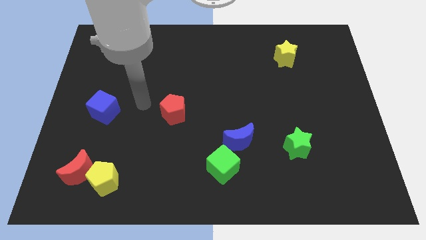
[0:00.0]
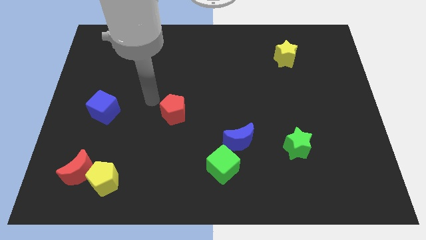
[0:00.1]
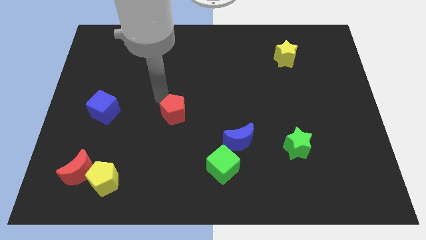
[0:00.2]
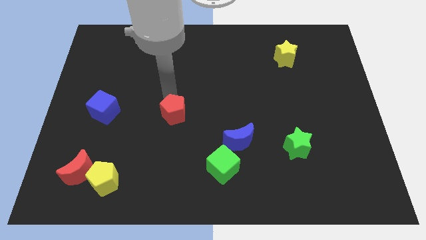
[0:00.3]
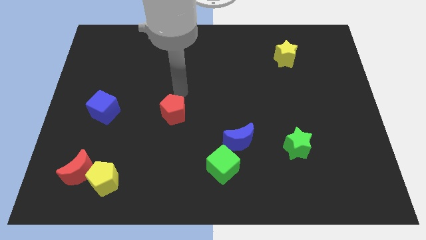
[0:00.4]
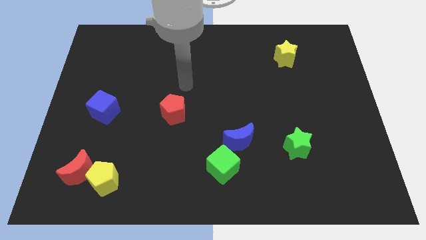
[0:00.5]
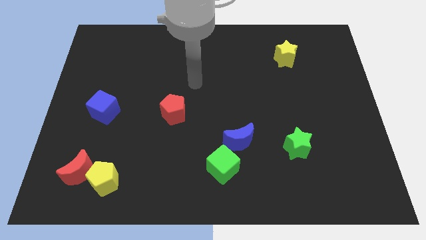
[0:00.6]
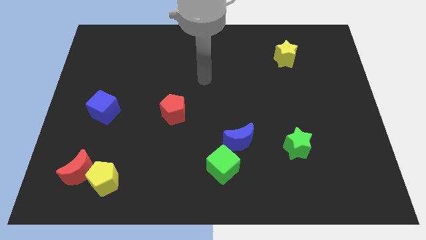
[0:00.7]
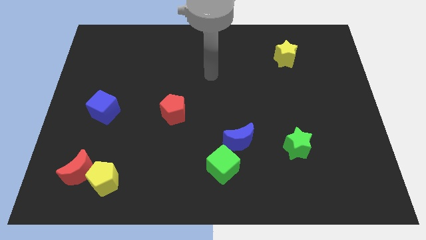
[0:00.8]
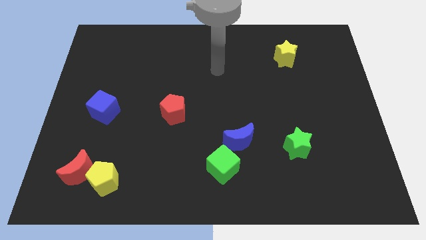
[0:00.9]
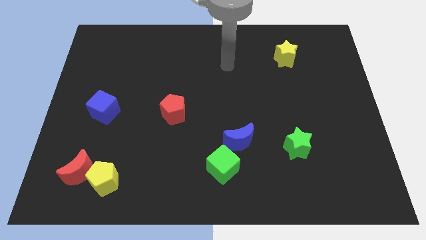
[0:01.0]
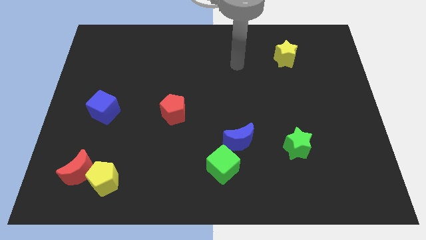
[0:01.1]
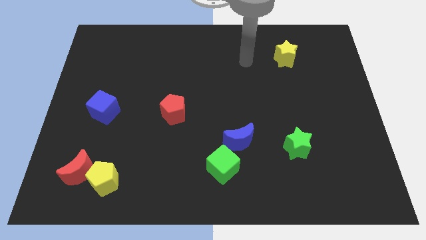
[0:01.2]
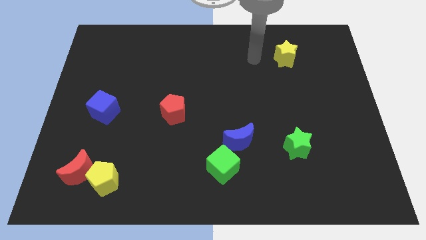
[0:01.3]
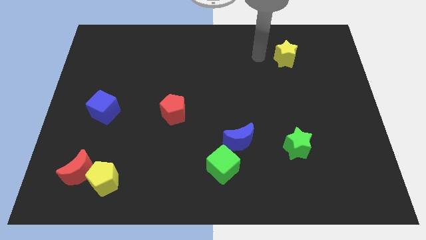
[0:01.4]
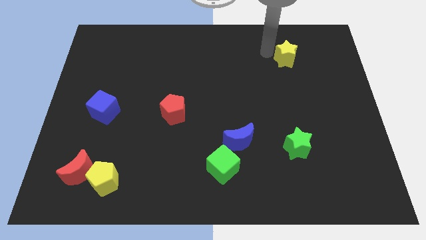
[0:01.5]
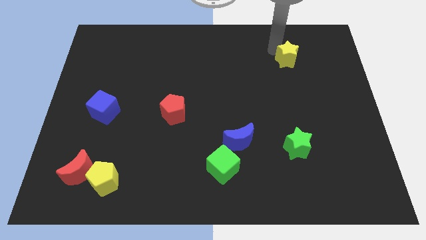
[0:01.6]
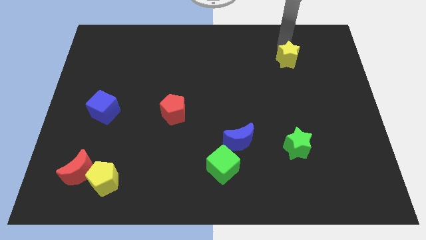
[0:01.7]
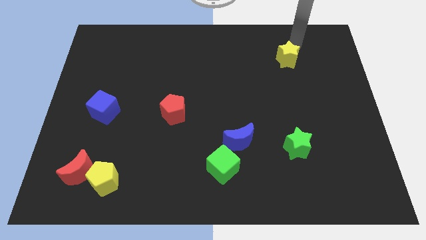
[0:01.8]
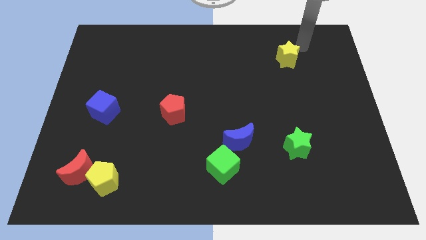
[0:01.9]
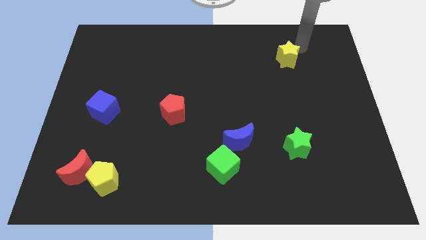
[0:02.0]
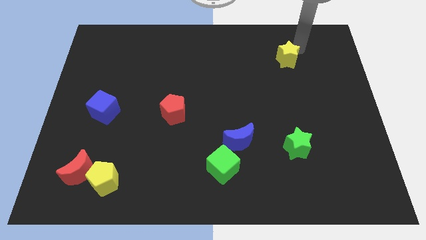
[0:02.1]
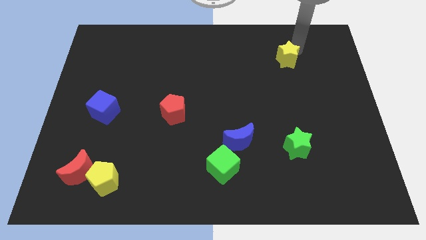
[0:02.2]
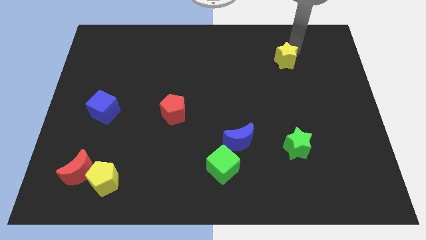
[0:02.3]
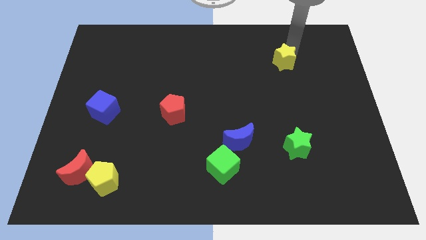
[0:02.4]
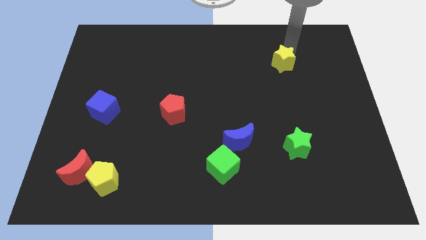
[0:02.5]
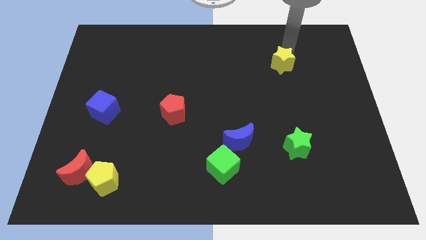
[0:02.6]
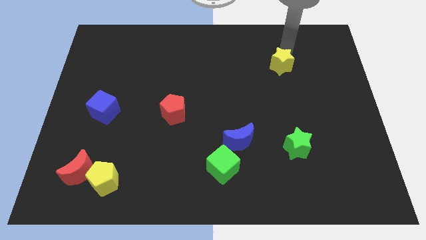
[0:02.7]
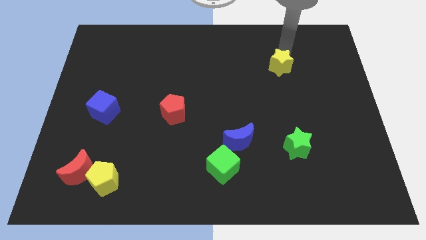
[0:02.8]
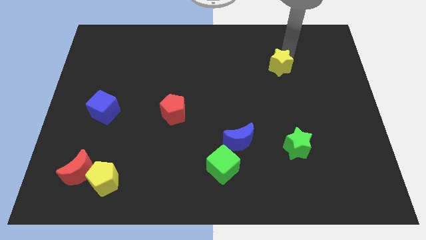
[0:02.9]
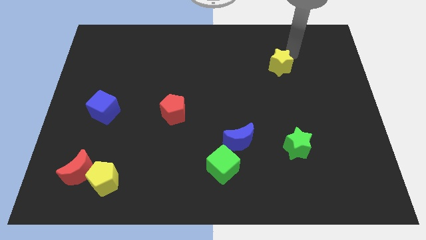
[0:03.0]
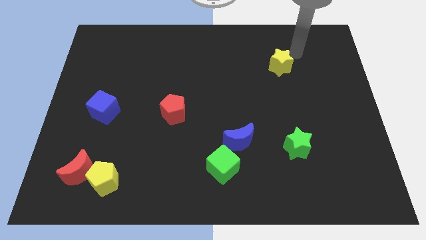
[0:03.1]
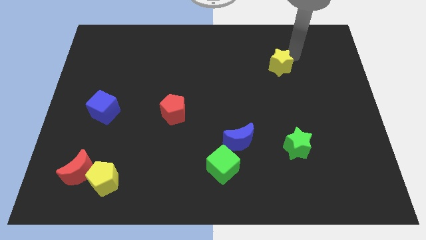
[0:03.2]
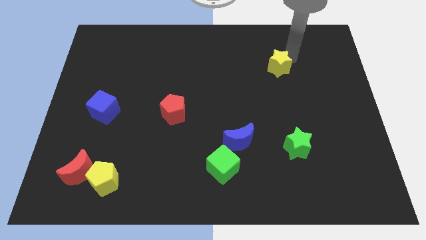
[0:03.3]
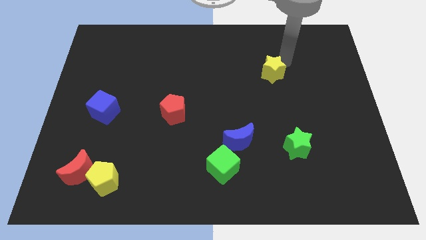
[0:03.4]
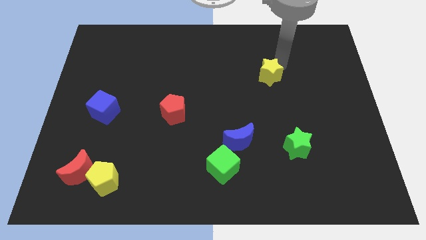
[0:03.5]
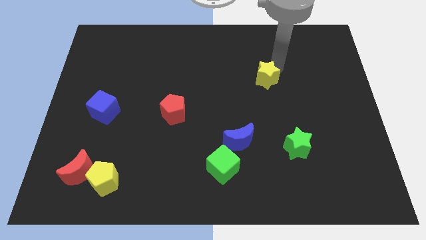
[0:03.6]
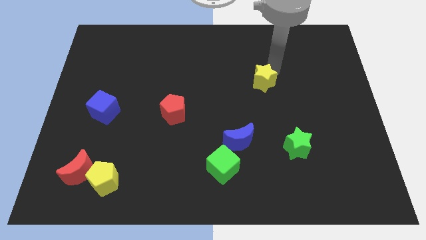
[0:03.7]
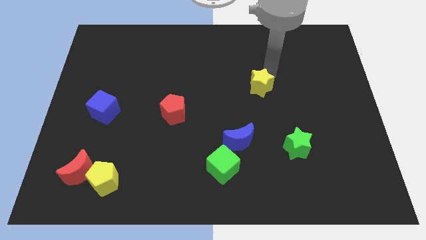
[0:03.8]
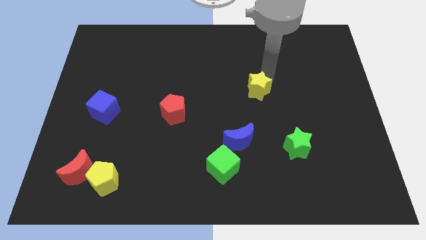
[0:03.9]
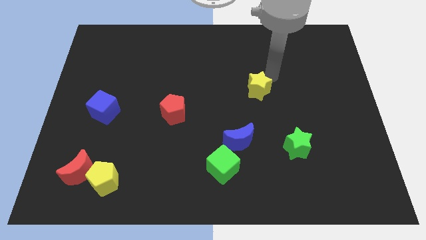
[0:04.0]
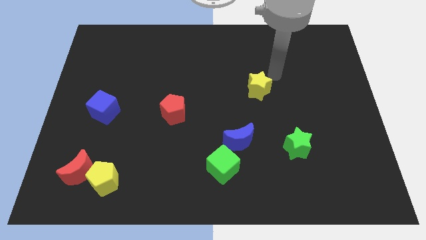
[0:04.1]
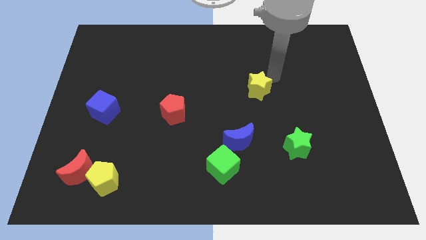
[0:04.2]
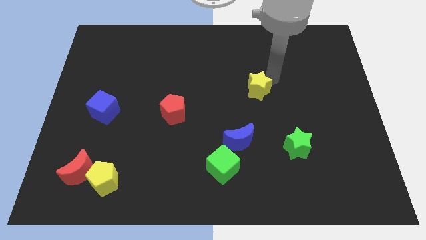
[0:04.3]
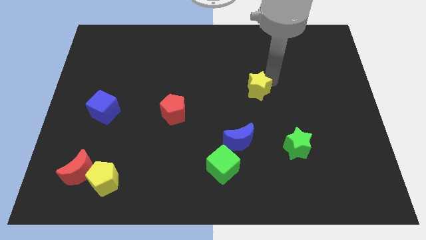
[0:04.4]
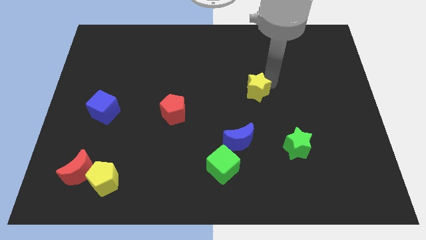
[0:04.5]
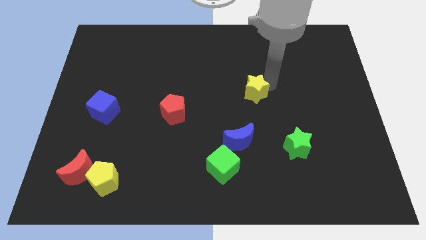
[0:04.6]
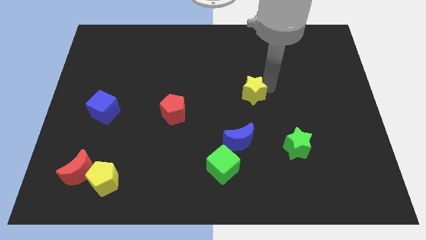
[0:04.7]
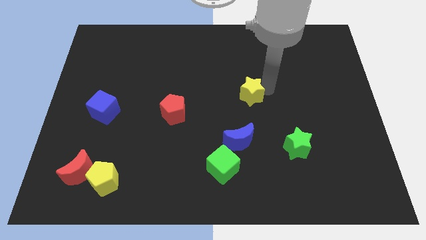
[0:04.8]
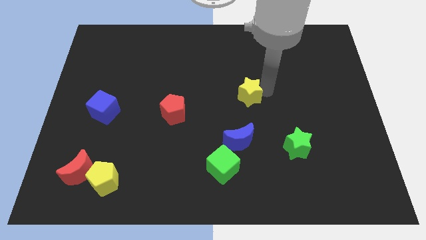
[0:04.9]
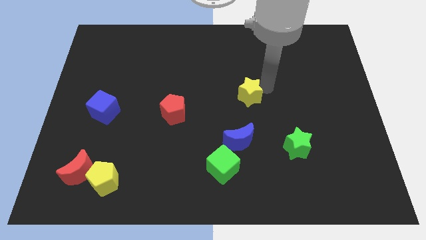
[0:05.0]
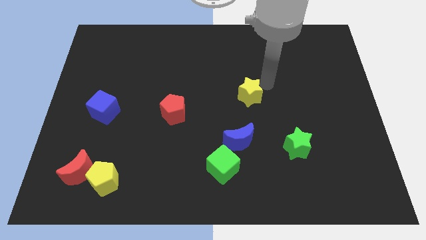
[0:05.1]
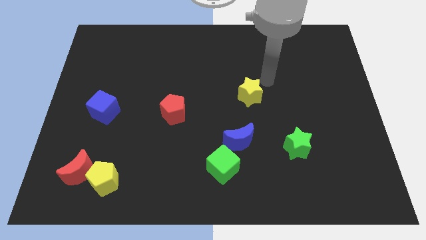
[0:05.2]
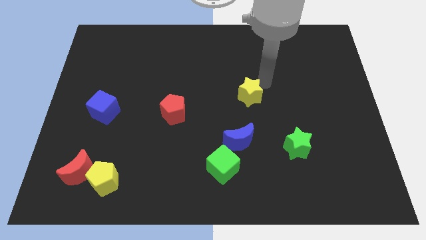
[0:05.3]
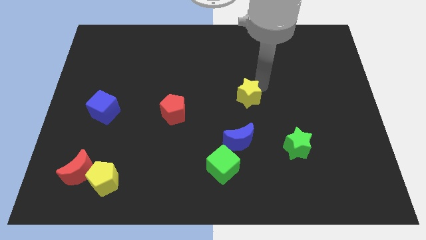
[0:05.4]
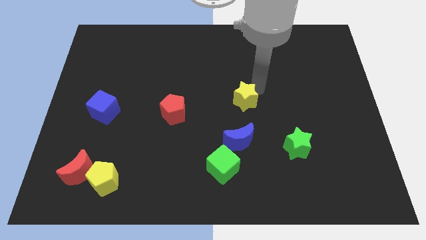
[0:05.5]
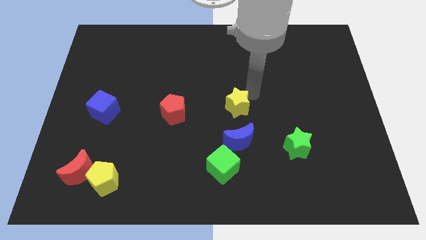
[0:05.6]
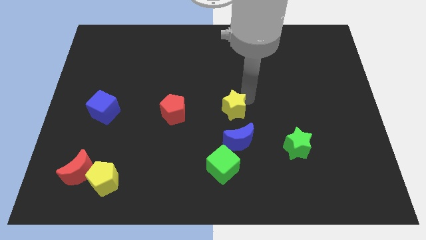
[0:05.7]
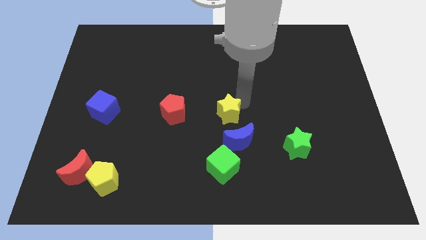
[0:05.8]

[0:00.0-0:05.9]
push the yellow star to the top left of the blue moon

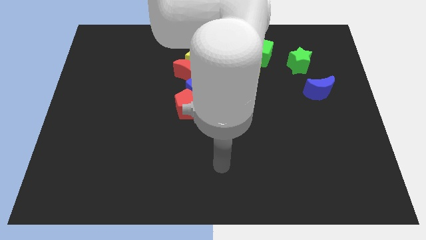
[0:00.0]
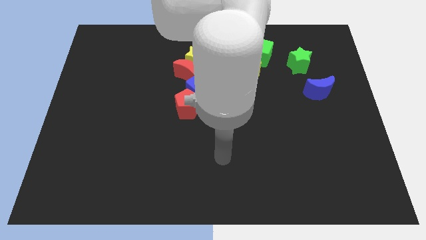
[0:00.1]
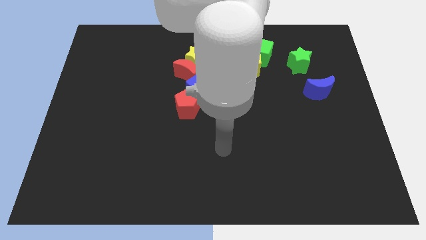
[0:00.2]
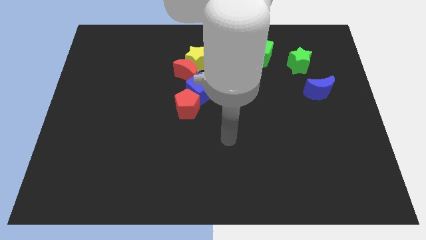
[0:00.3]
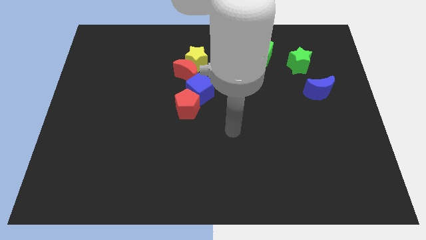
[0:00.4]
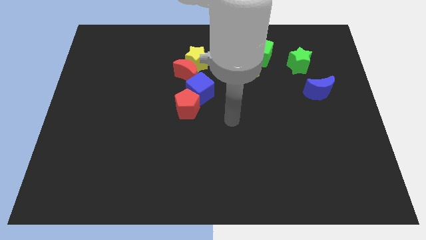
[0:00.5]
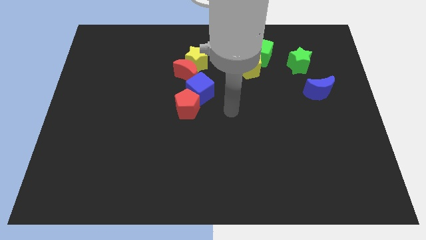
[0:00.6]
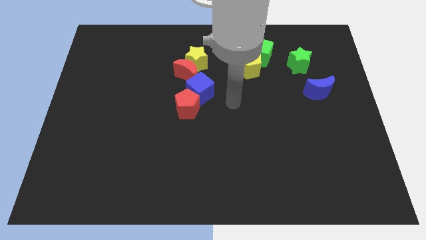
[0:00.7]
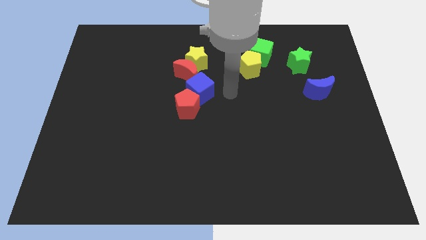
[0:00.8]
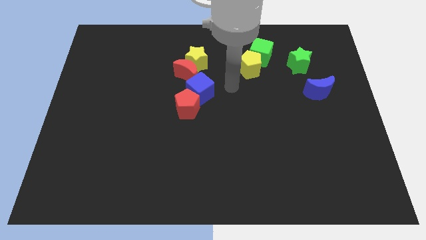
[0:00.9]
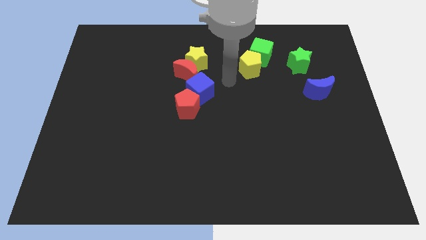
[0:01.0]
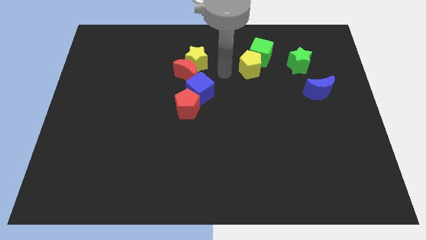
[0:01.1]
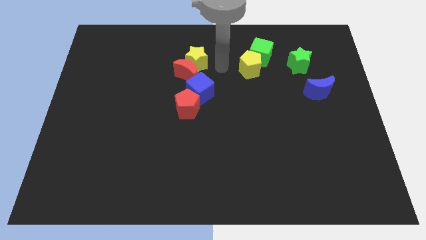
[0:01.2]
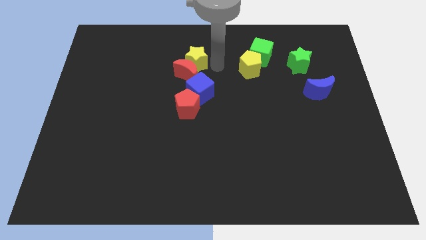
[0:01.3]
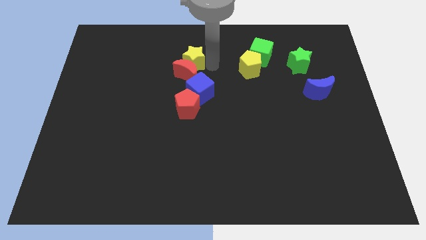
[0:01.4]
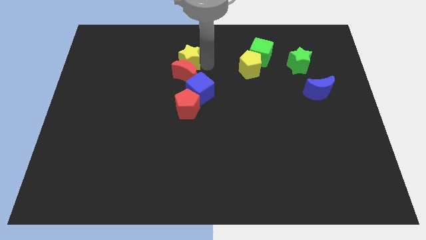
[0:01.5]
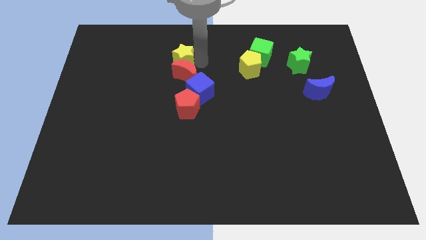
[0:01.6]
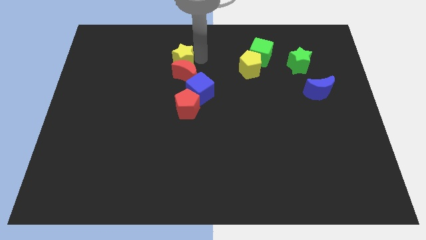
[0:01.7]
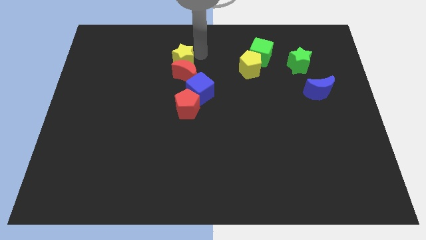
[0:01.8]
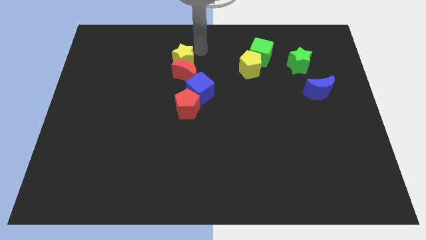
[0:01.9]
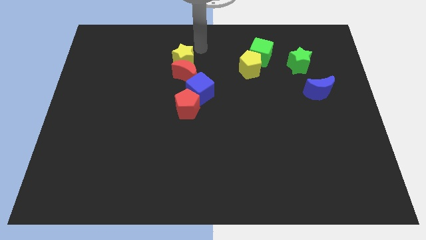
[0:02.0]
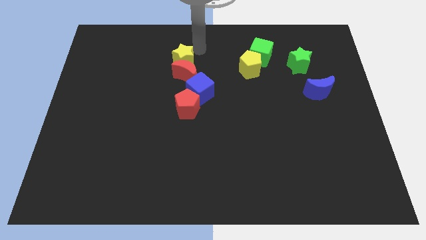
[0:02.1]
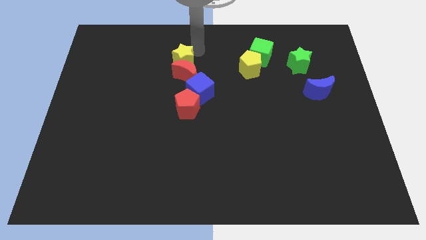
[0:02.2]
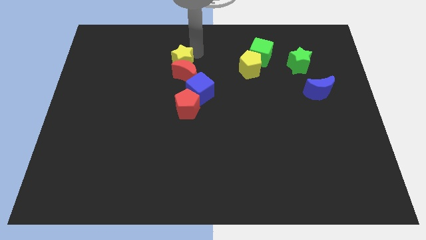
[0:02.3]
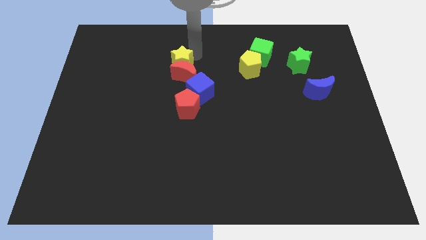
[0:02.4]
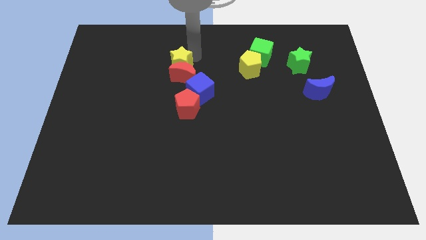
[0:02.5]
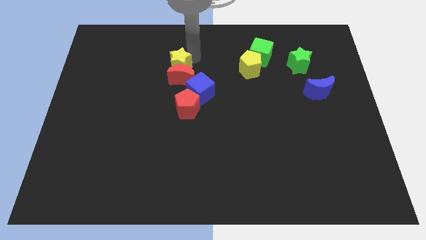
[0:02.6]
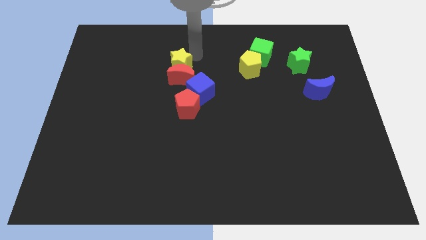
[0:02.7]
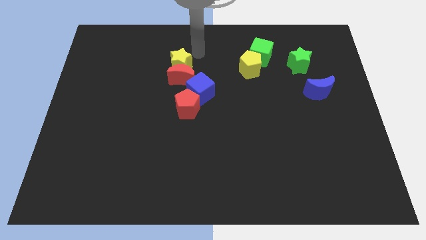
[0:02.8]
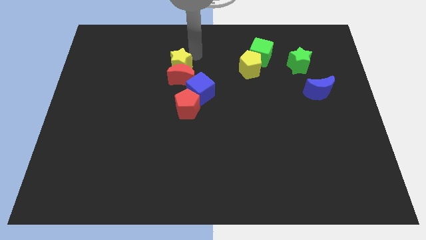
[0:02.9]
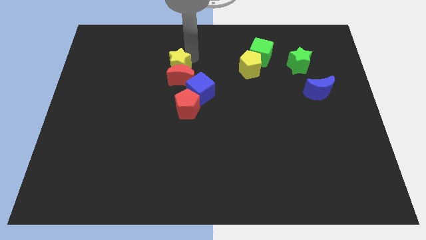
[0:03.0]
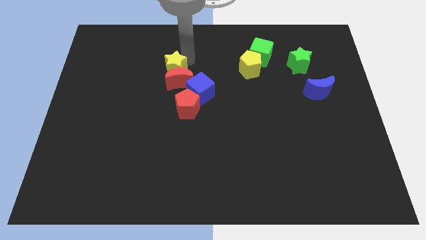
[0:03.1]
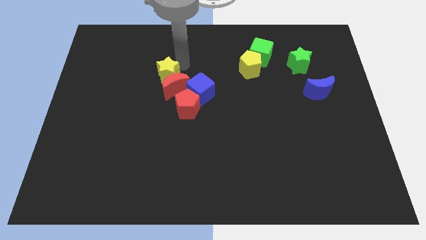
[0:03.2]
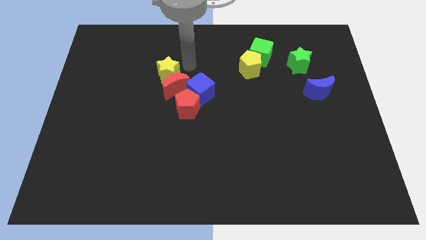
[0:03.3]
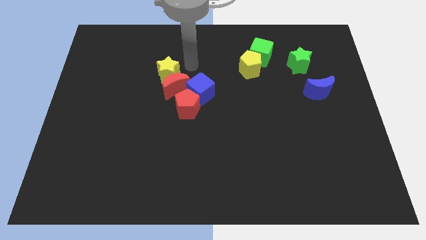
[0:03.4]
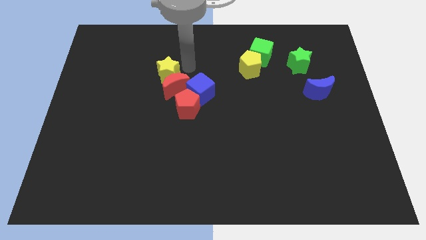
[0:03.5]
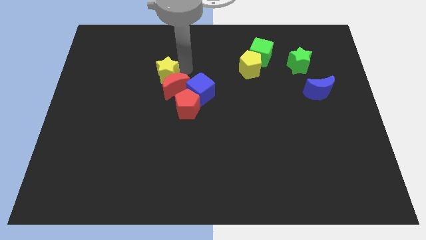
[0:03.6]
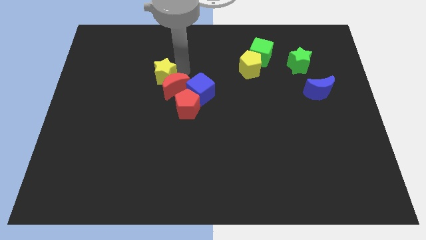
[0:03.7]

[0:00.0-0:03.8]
slide the yellow star left of the red moon
